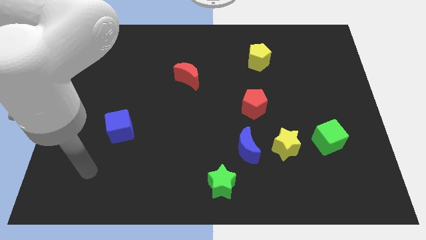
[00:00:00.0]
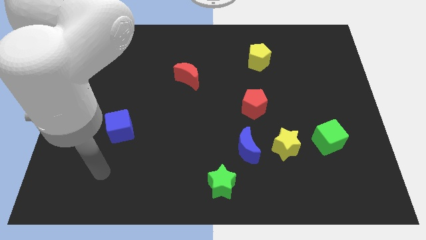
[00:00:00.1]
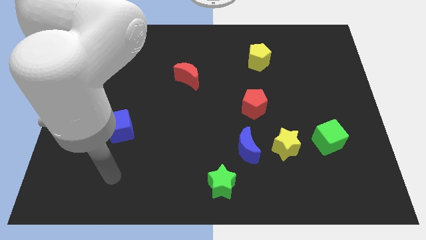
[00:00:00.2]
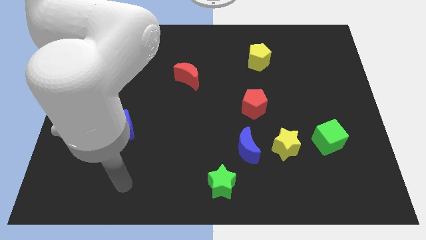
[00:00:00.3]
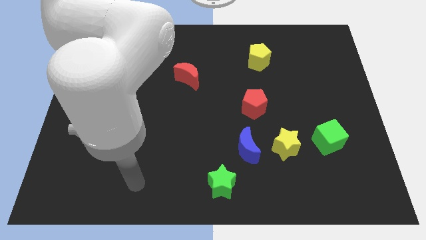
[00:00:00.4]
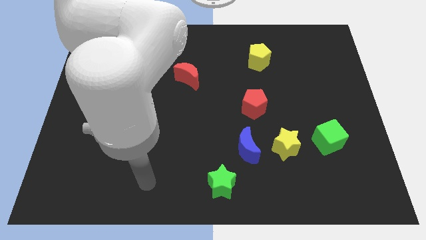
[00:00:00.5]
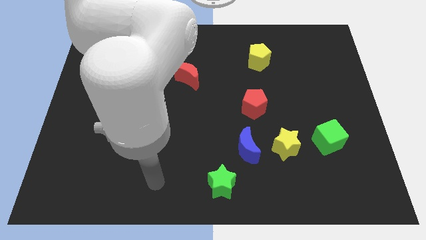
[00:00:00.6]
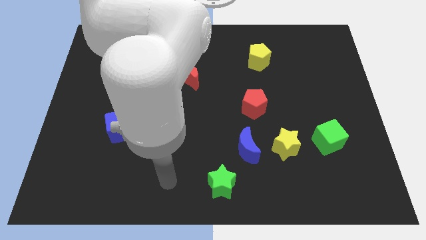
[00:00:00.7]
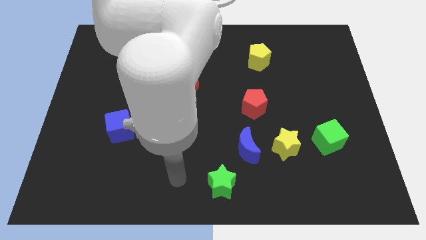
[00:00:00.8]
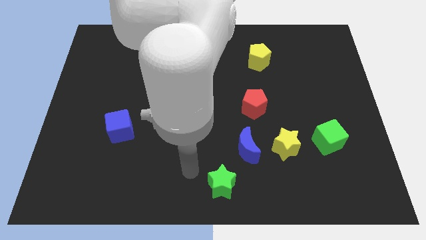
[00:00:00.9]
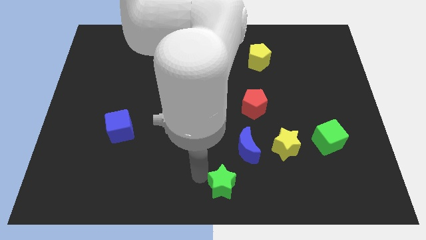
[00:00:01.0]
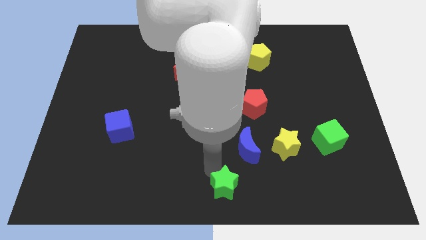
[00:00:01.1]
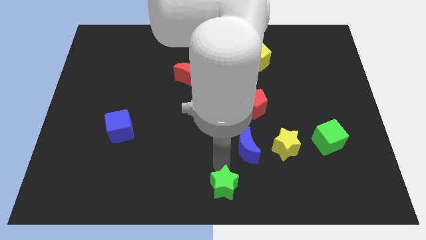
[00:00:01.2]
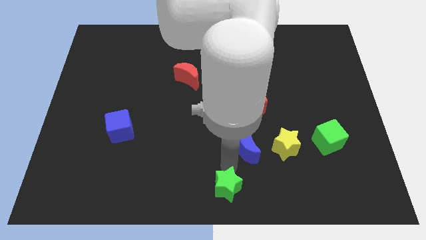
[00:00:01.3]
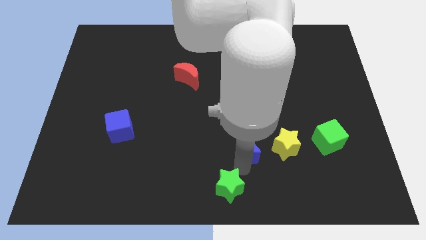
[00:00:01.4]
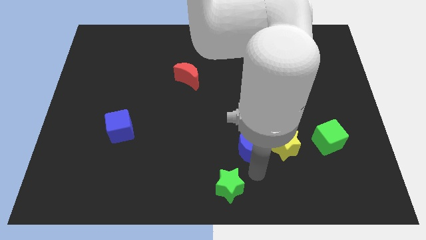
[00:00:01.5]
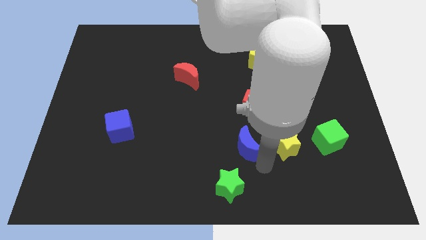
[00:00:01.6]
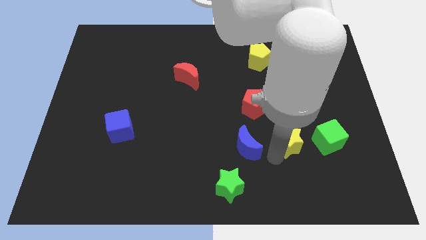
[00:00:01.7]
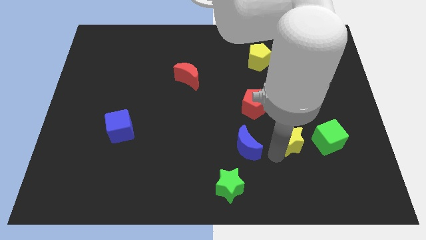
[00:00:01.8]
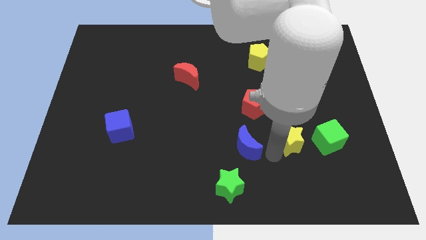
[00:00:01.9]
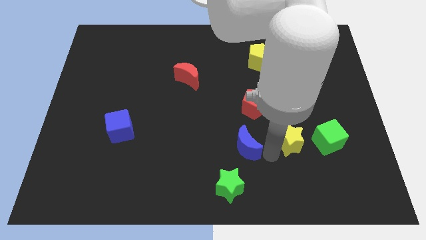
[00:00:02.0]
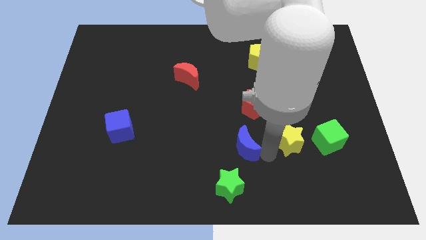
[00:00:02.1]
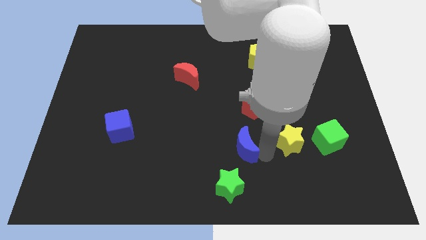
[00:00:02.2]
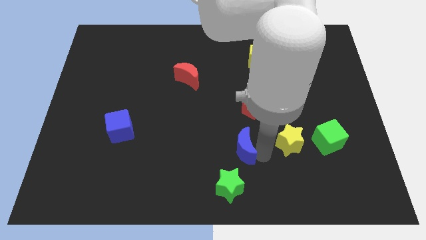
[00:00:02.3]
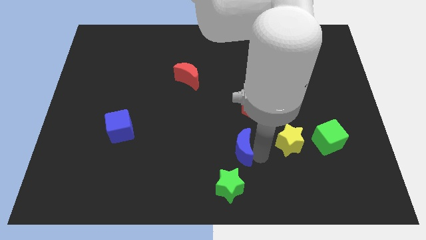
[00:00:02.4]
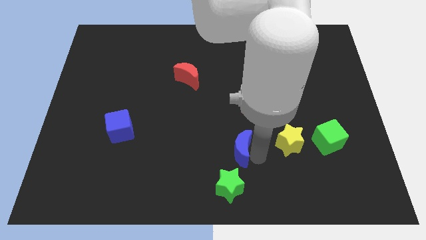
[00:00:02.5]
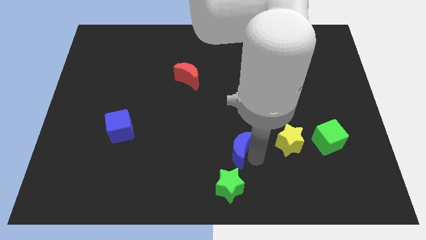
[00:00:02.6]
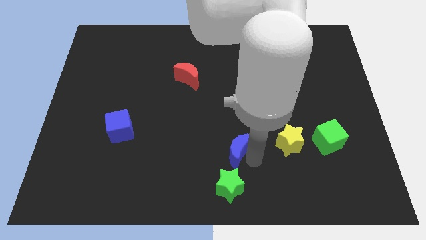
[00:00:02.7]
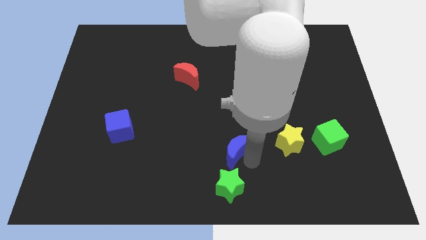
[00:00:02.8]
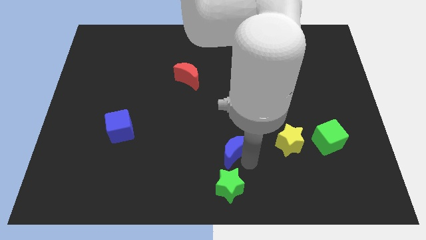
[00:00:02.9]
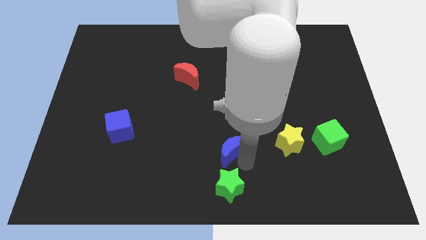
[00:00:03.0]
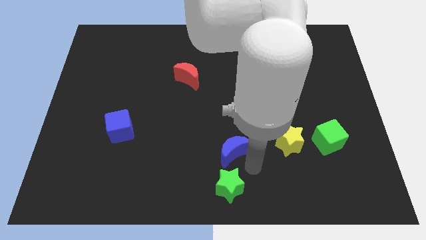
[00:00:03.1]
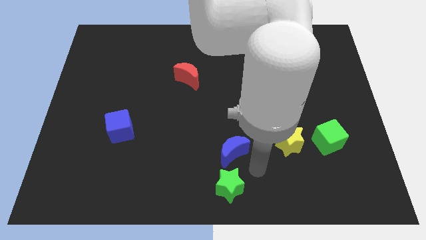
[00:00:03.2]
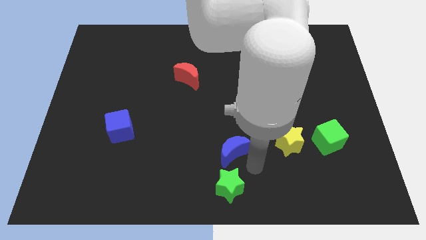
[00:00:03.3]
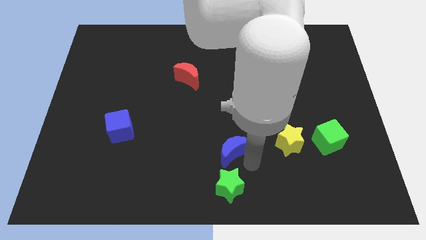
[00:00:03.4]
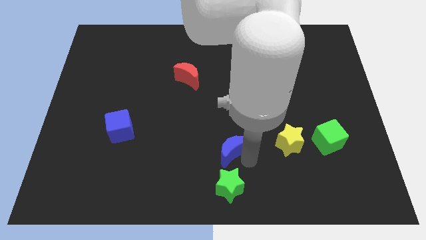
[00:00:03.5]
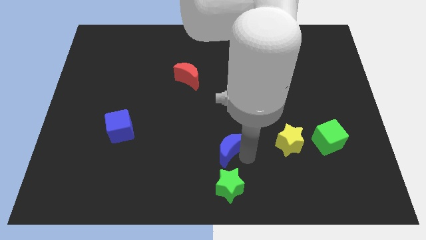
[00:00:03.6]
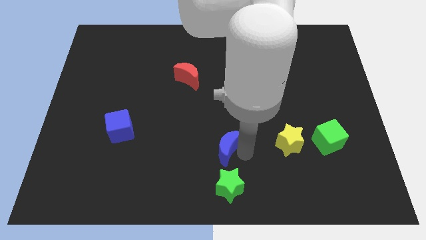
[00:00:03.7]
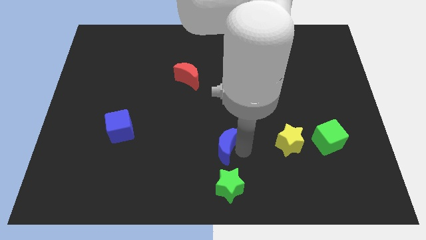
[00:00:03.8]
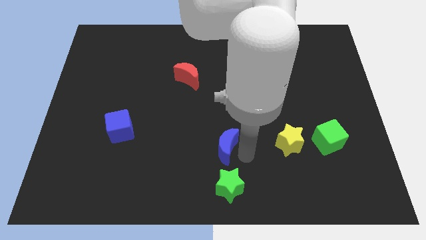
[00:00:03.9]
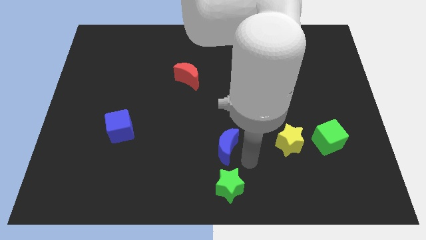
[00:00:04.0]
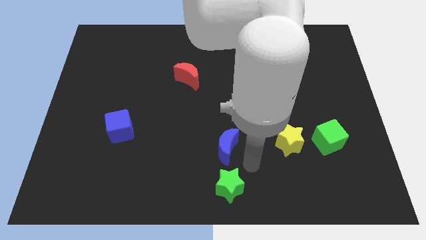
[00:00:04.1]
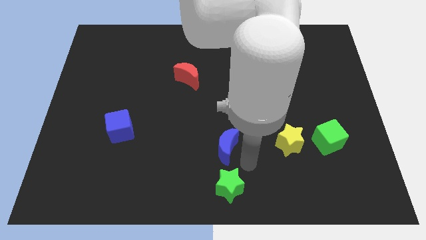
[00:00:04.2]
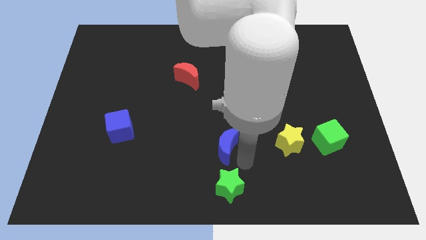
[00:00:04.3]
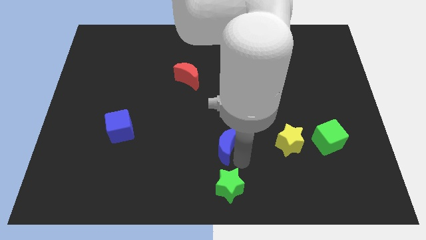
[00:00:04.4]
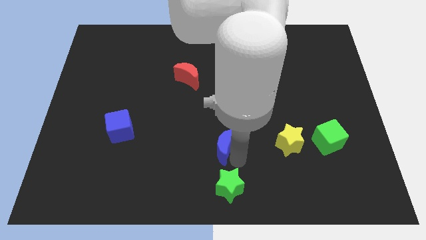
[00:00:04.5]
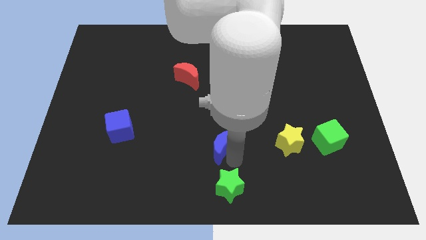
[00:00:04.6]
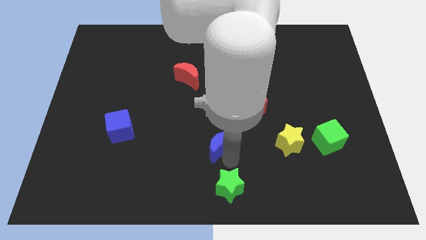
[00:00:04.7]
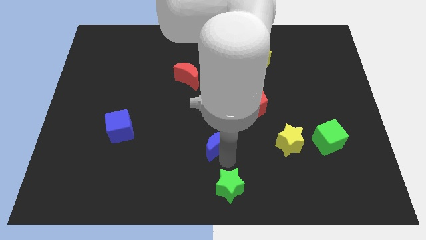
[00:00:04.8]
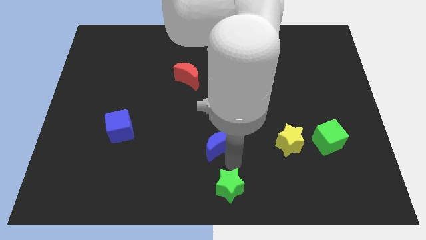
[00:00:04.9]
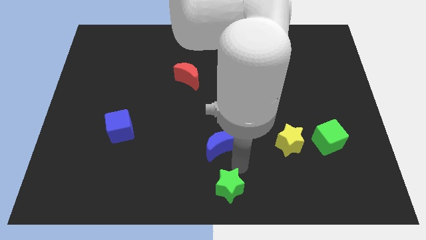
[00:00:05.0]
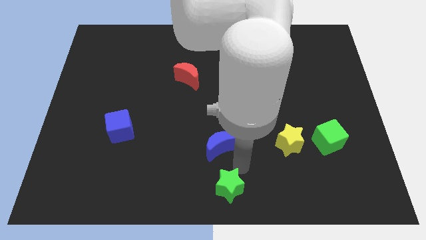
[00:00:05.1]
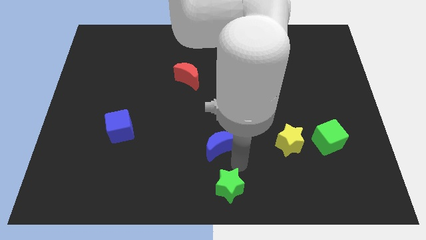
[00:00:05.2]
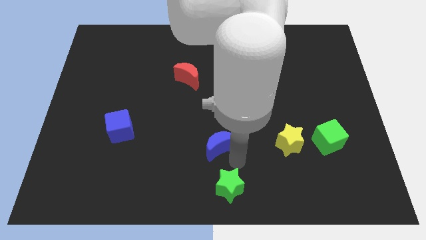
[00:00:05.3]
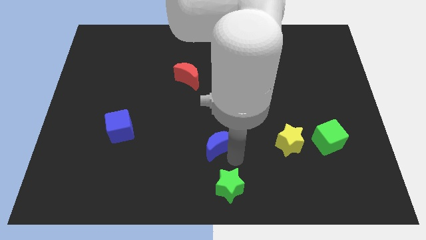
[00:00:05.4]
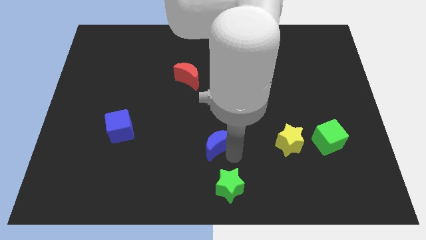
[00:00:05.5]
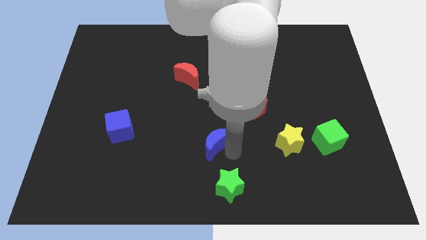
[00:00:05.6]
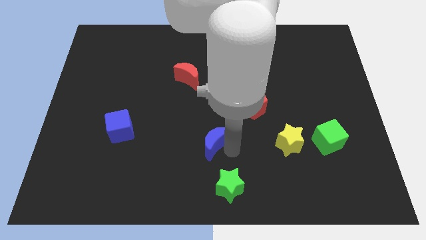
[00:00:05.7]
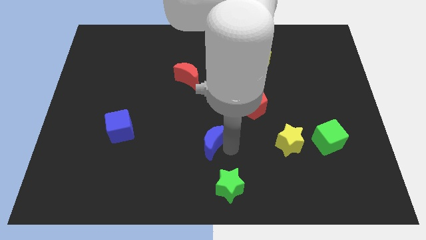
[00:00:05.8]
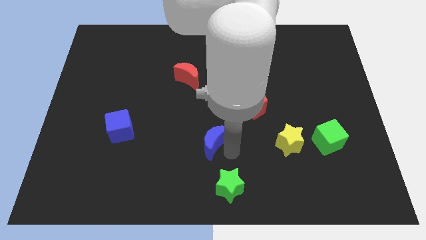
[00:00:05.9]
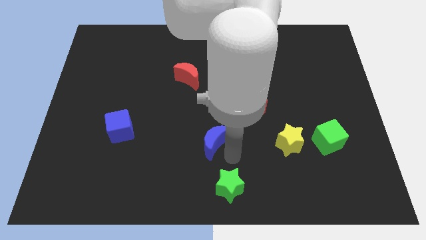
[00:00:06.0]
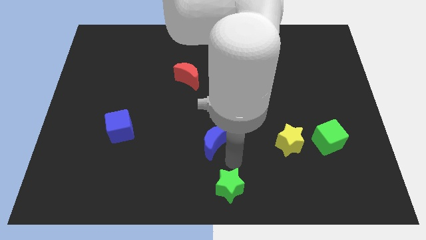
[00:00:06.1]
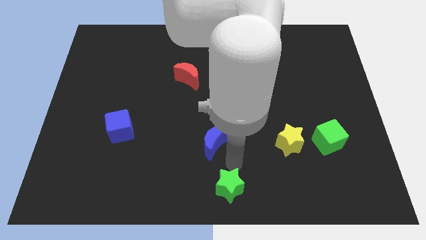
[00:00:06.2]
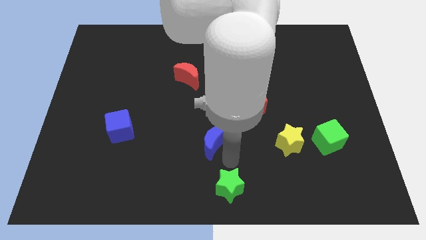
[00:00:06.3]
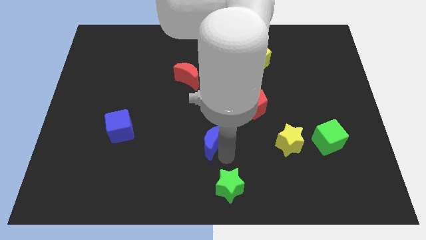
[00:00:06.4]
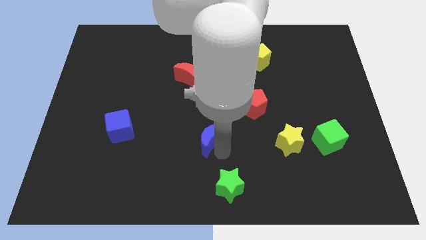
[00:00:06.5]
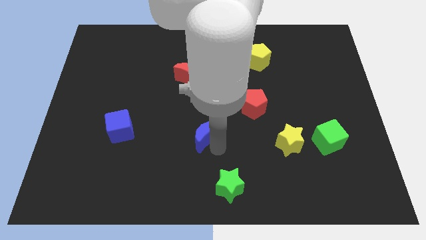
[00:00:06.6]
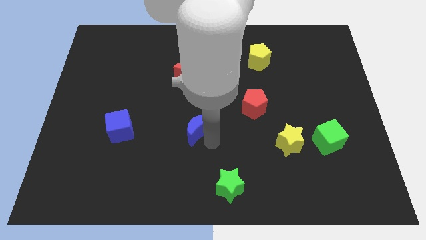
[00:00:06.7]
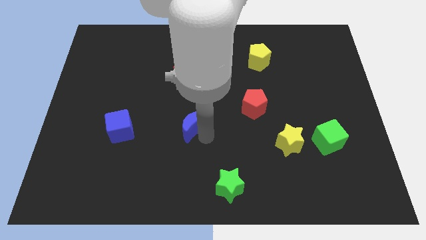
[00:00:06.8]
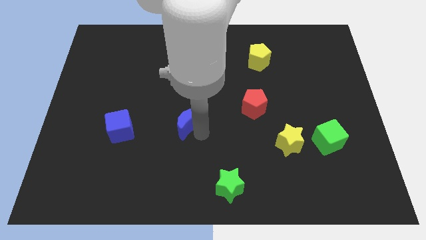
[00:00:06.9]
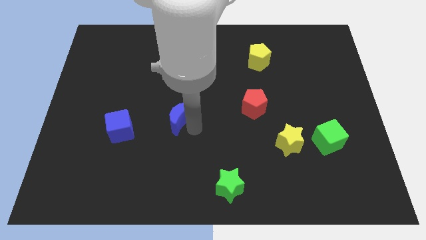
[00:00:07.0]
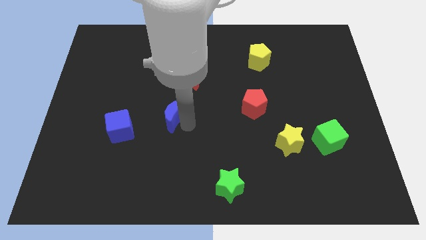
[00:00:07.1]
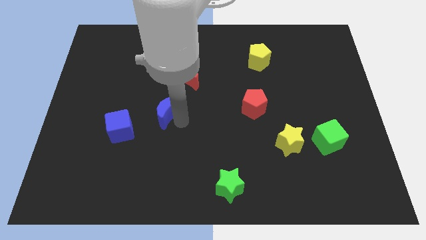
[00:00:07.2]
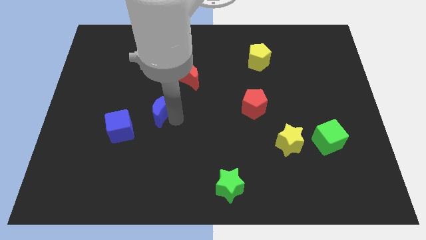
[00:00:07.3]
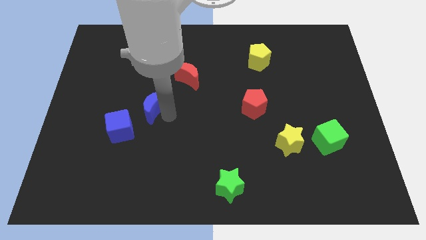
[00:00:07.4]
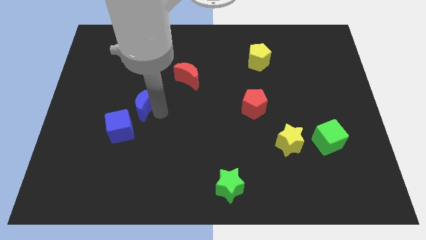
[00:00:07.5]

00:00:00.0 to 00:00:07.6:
put the blue moon above the blue cube
